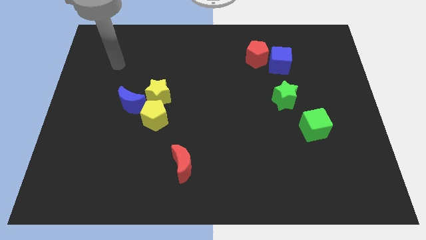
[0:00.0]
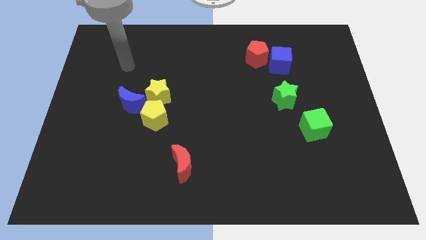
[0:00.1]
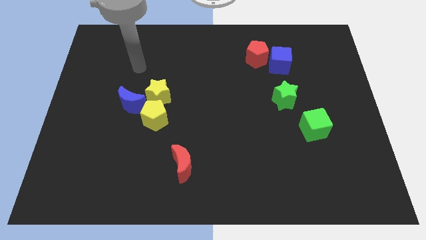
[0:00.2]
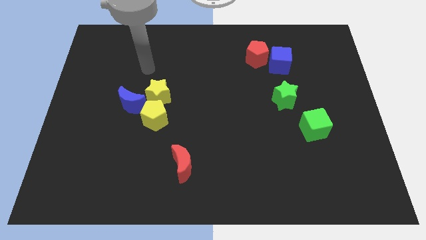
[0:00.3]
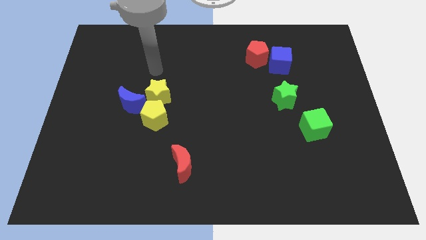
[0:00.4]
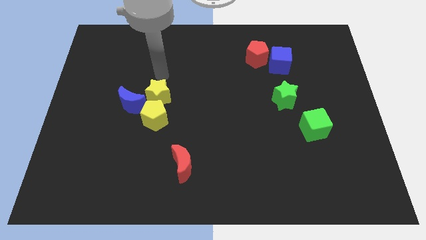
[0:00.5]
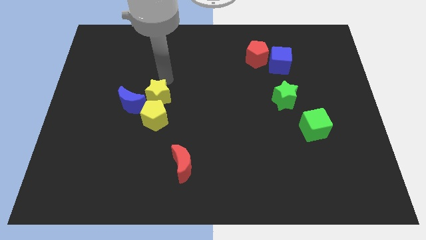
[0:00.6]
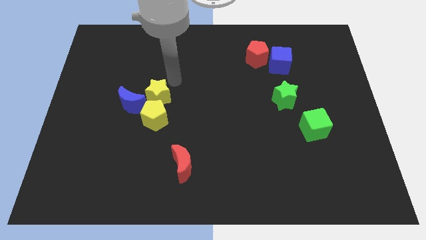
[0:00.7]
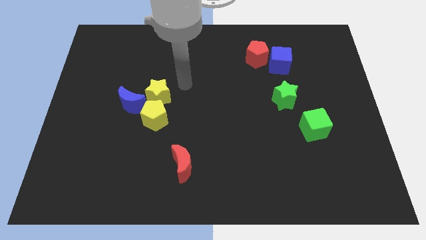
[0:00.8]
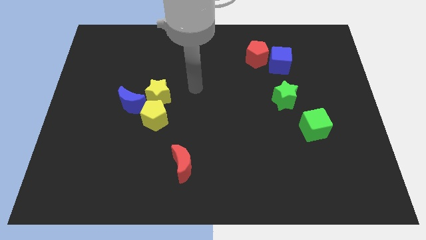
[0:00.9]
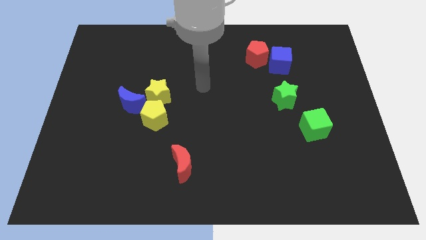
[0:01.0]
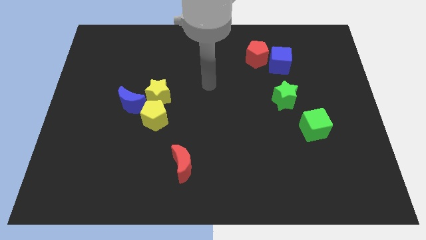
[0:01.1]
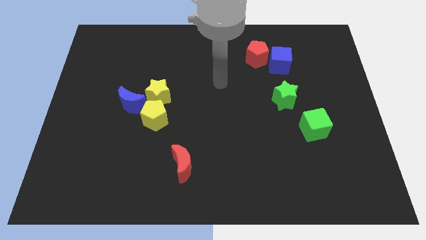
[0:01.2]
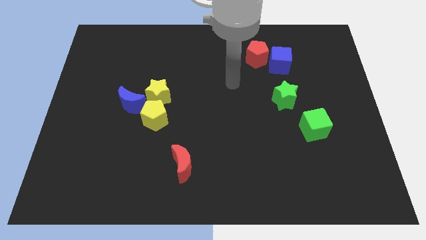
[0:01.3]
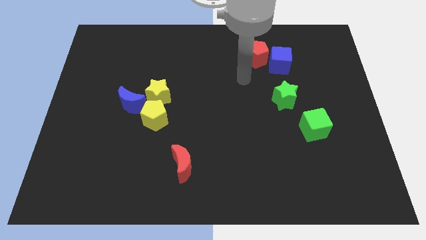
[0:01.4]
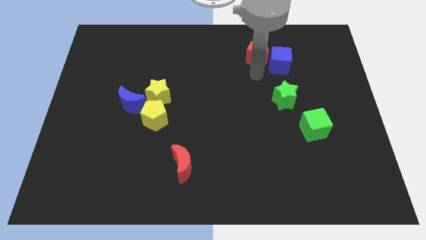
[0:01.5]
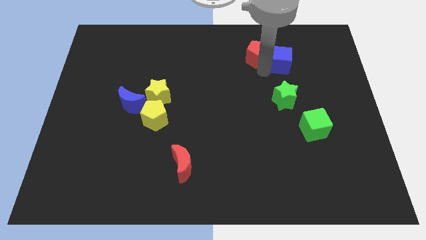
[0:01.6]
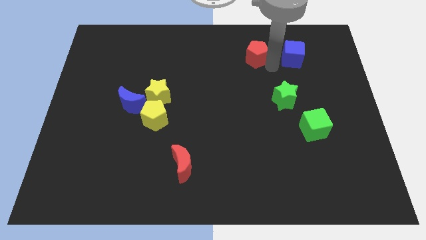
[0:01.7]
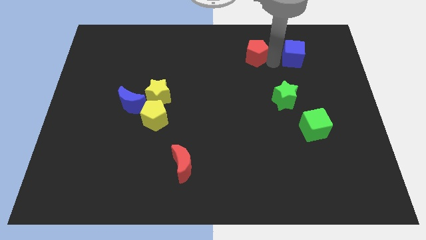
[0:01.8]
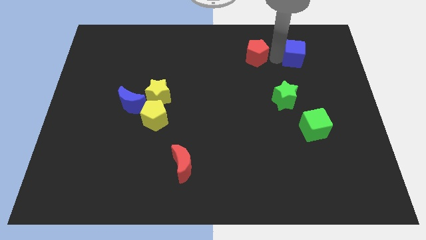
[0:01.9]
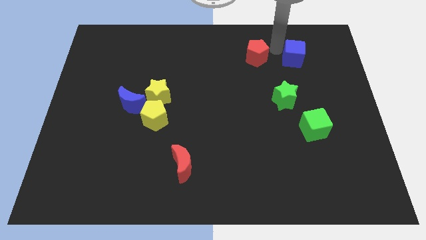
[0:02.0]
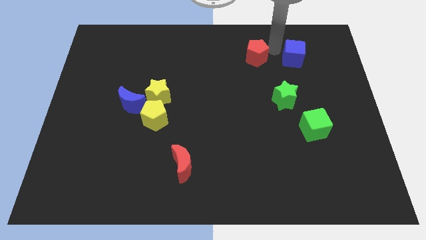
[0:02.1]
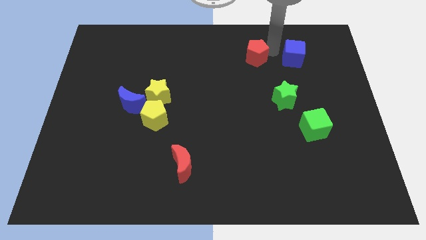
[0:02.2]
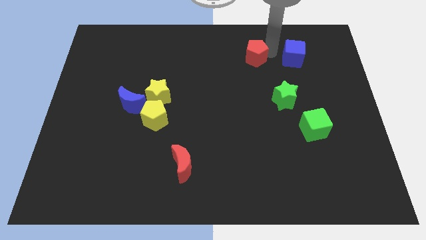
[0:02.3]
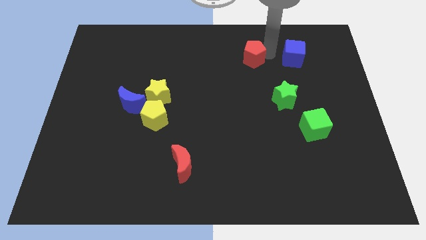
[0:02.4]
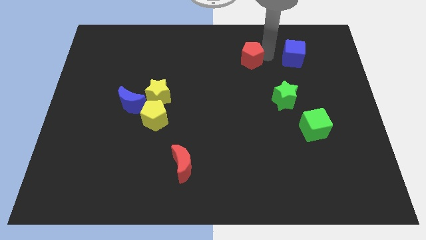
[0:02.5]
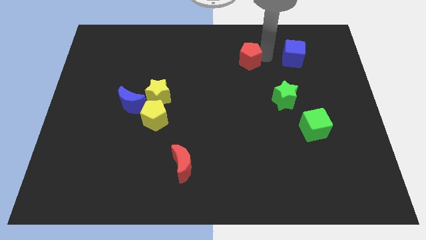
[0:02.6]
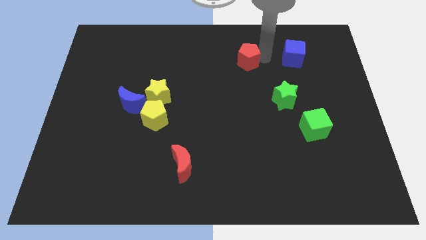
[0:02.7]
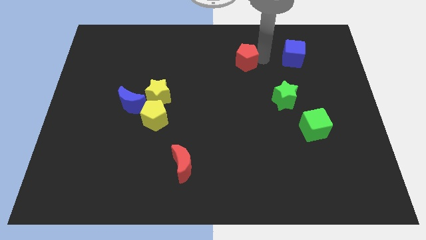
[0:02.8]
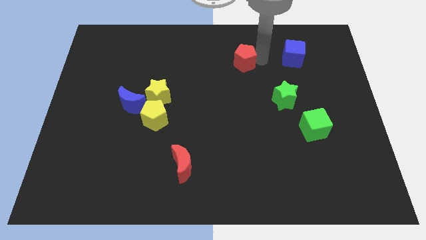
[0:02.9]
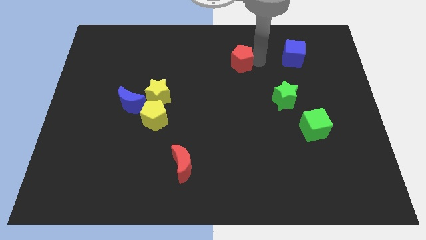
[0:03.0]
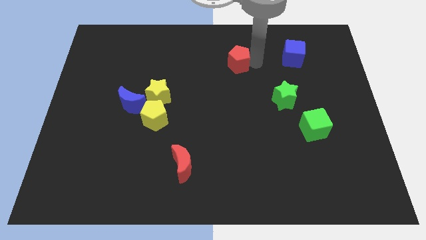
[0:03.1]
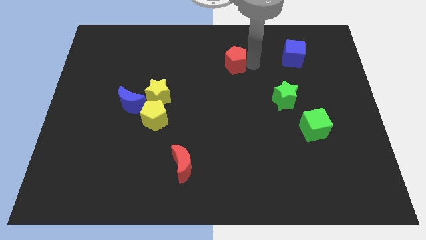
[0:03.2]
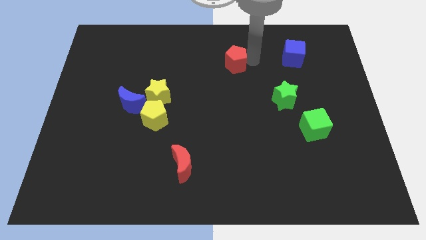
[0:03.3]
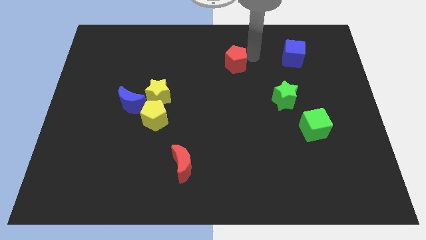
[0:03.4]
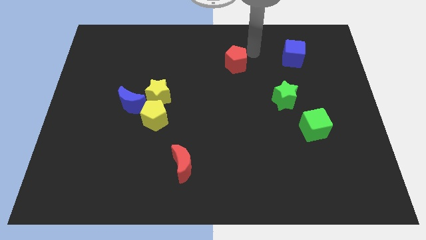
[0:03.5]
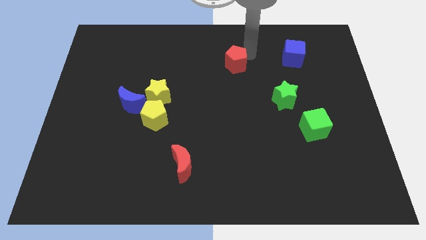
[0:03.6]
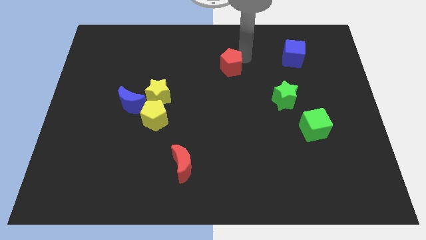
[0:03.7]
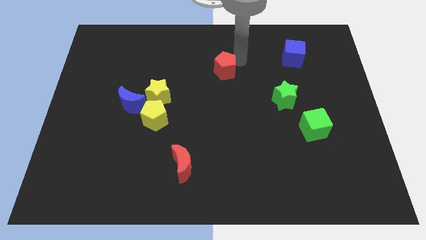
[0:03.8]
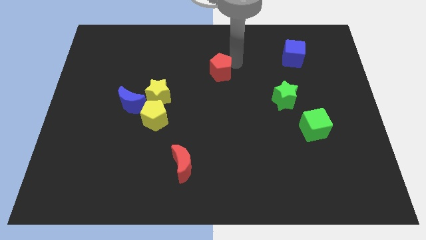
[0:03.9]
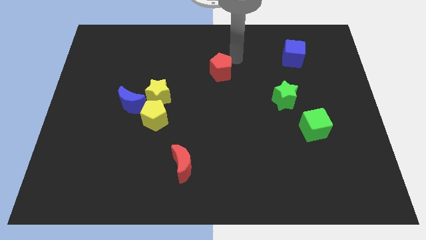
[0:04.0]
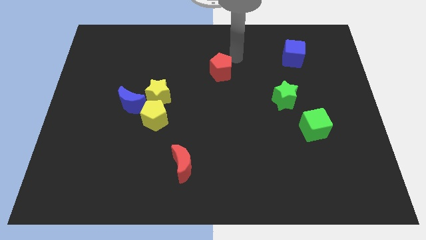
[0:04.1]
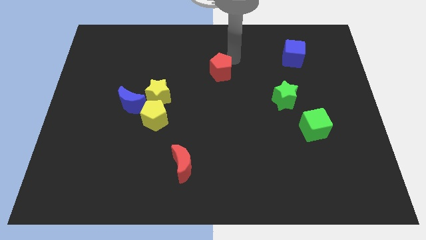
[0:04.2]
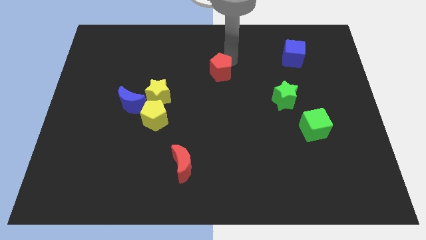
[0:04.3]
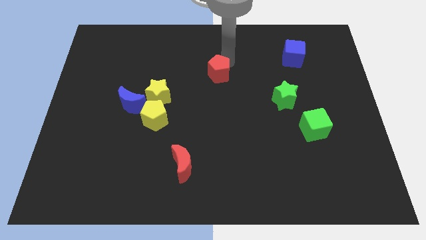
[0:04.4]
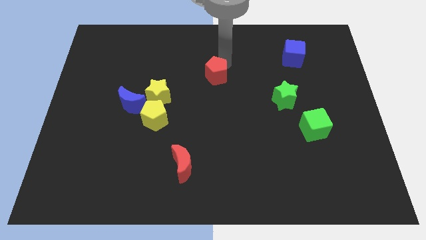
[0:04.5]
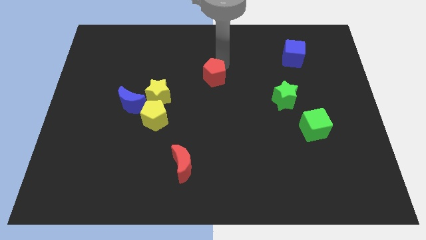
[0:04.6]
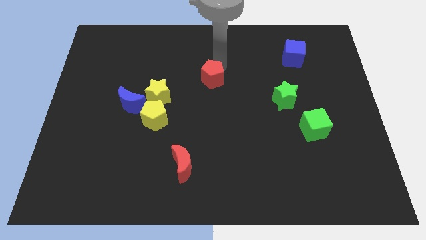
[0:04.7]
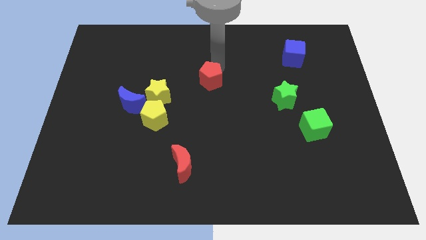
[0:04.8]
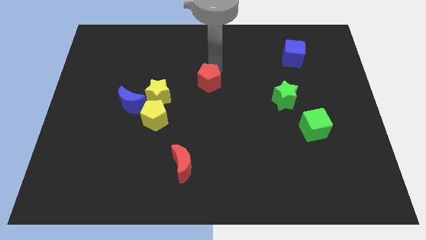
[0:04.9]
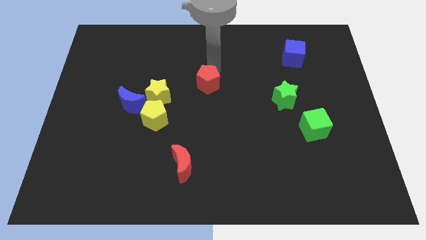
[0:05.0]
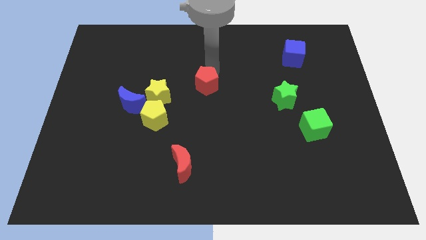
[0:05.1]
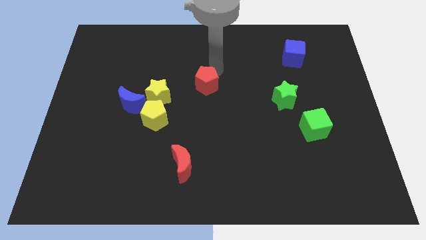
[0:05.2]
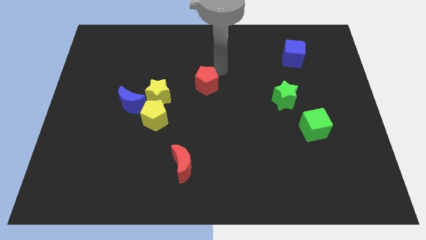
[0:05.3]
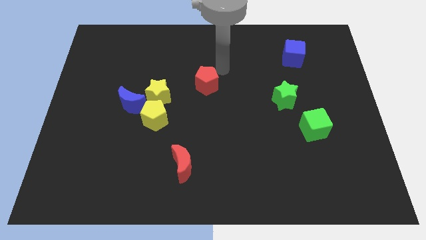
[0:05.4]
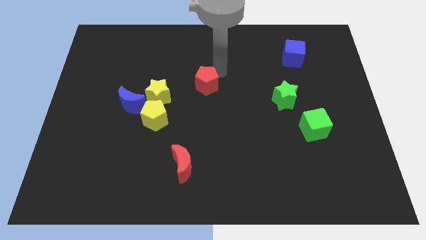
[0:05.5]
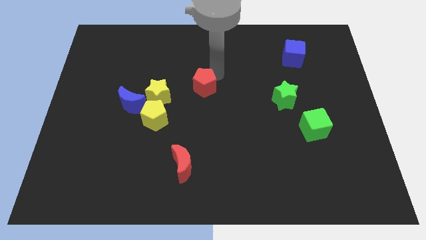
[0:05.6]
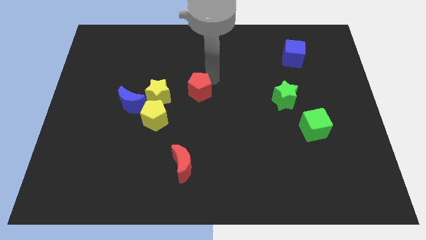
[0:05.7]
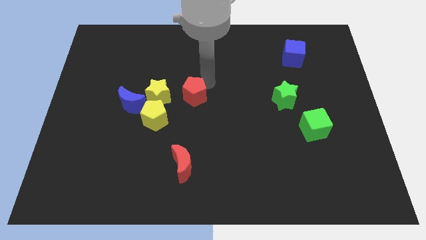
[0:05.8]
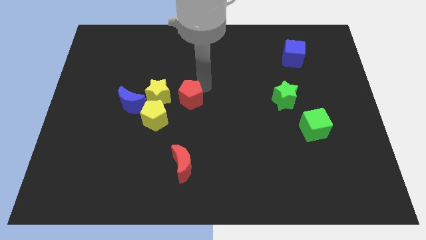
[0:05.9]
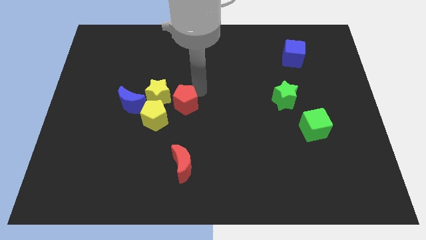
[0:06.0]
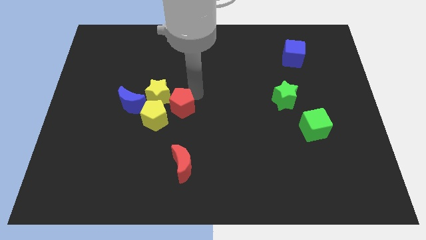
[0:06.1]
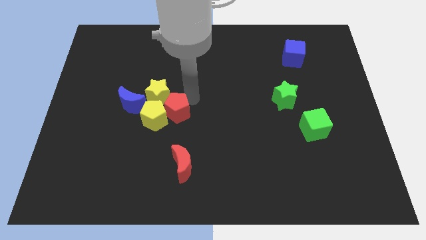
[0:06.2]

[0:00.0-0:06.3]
move the red pentagon to the yellow pentagon
